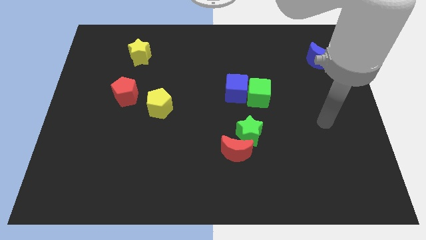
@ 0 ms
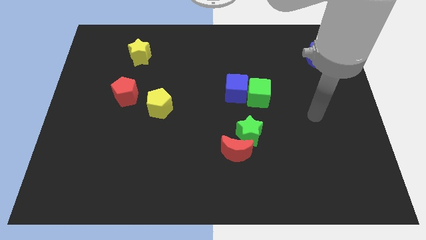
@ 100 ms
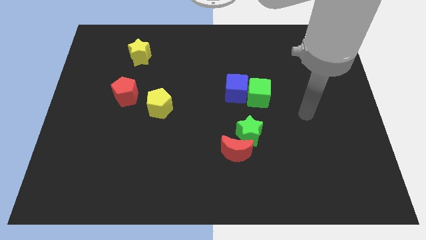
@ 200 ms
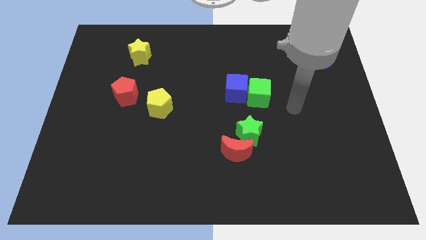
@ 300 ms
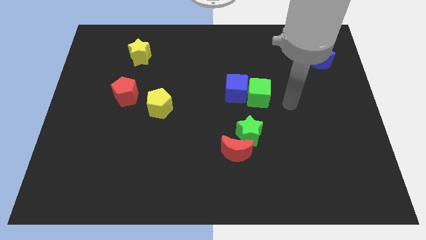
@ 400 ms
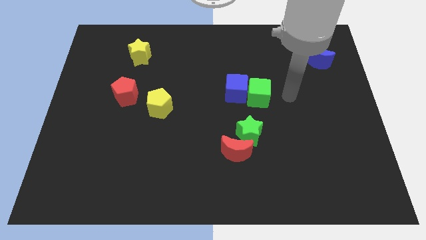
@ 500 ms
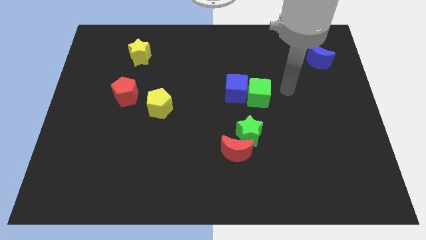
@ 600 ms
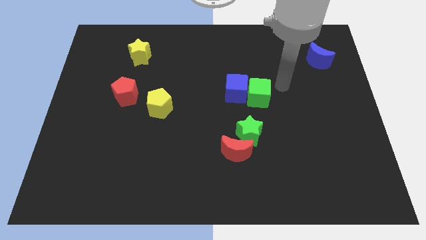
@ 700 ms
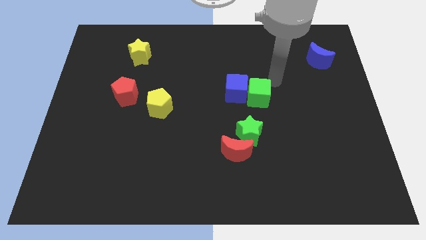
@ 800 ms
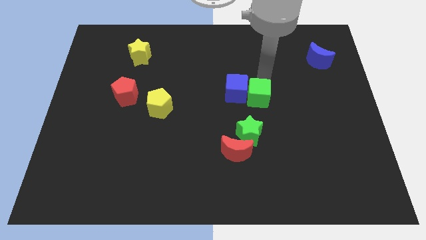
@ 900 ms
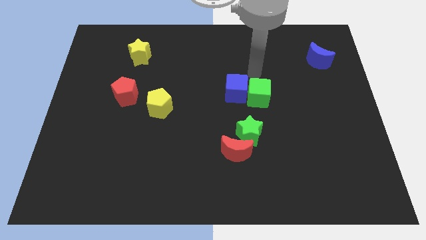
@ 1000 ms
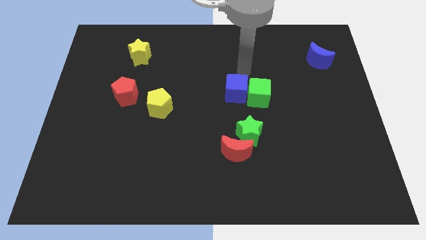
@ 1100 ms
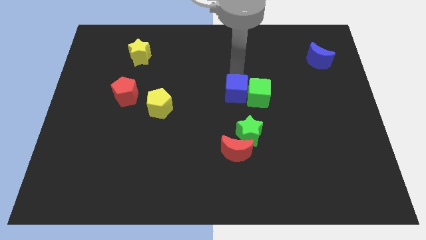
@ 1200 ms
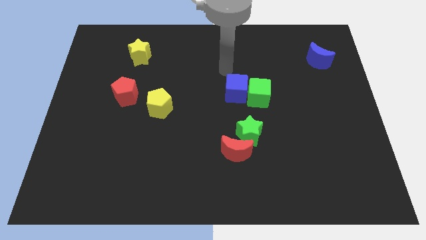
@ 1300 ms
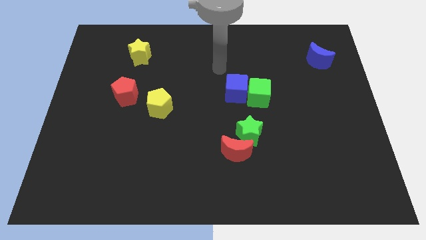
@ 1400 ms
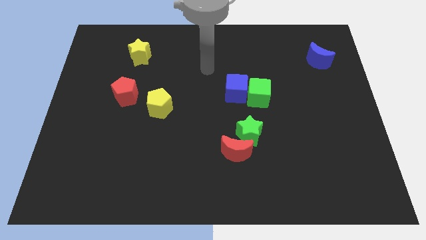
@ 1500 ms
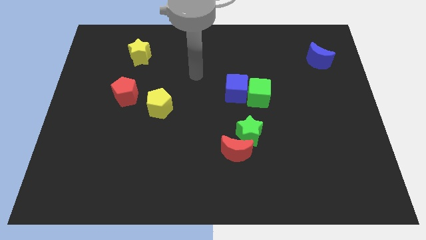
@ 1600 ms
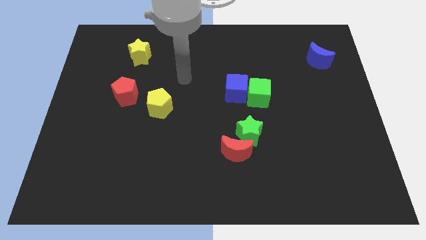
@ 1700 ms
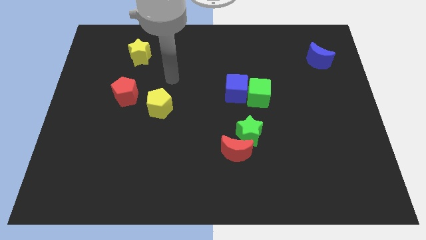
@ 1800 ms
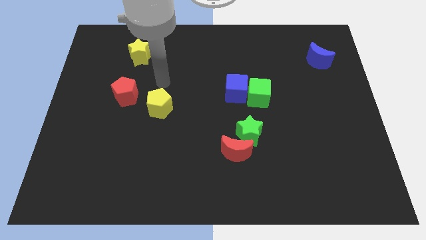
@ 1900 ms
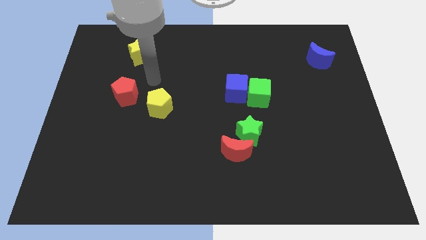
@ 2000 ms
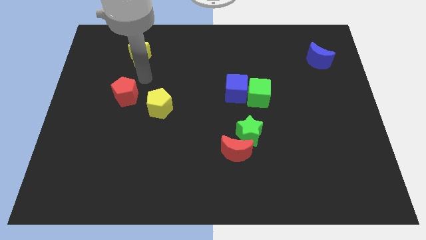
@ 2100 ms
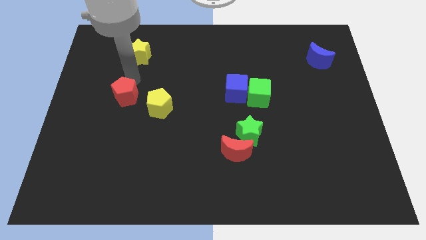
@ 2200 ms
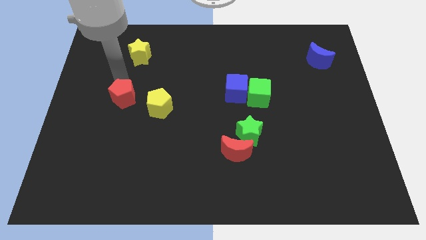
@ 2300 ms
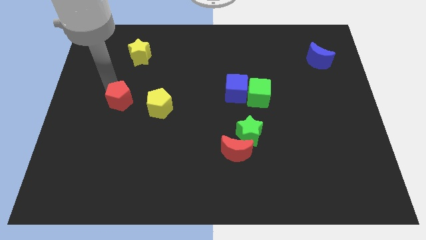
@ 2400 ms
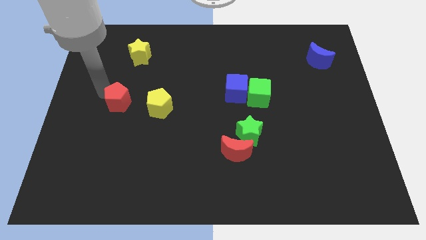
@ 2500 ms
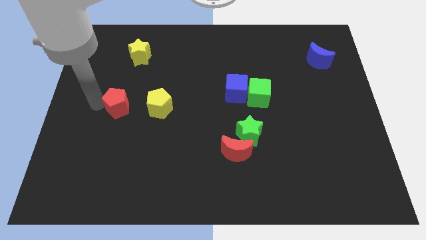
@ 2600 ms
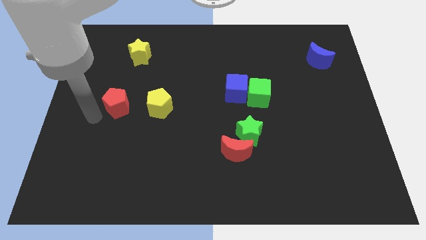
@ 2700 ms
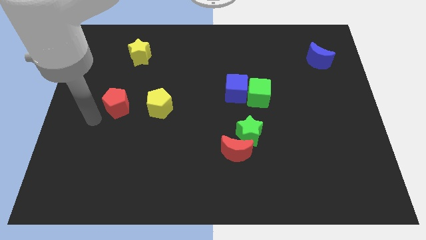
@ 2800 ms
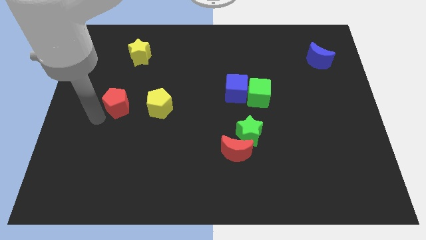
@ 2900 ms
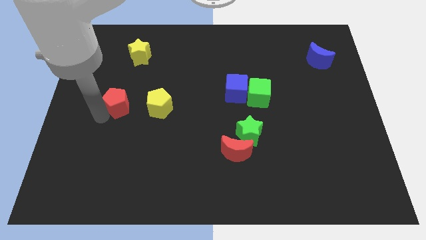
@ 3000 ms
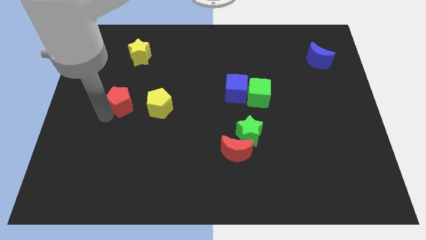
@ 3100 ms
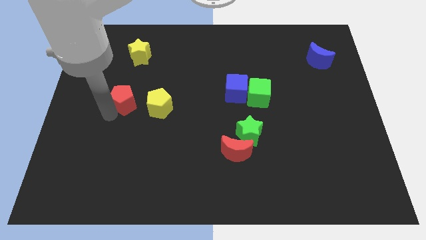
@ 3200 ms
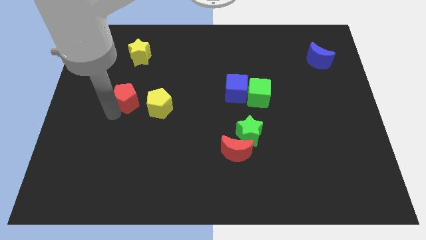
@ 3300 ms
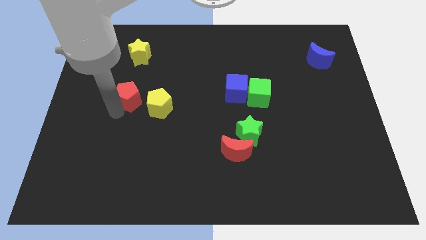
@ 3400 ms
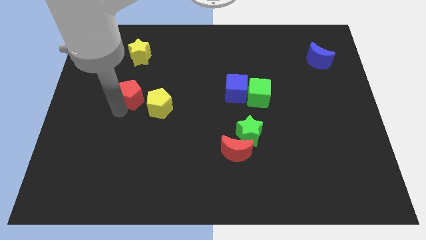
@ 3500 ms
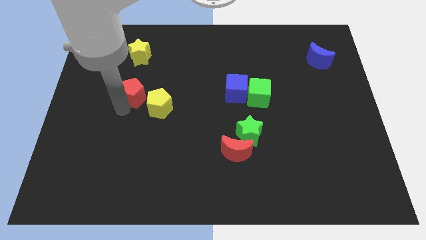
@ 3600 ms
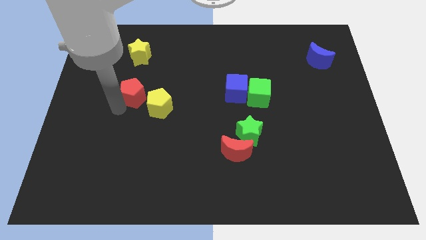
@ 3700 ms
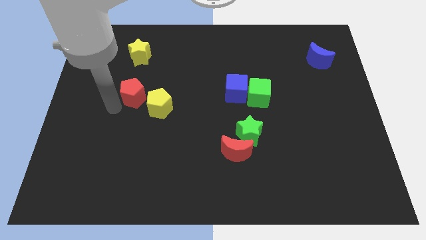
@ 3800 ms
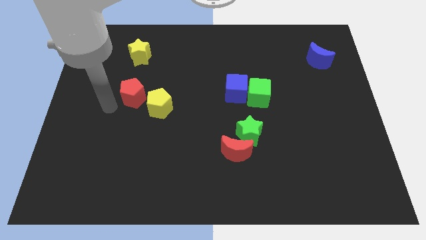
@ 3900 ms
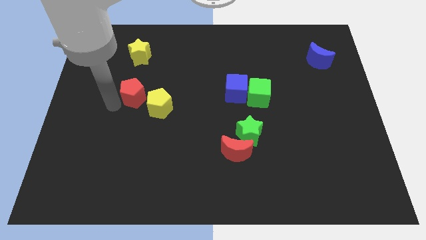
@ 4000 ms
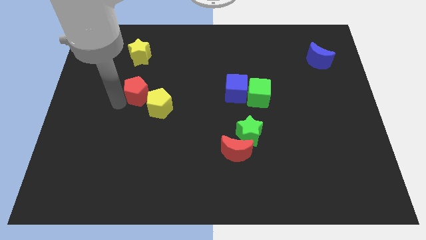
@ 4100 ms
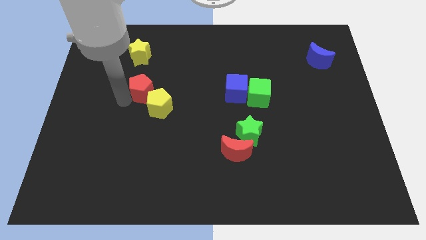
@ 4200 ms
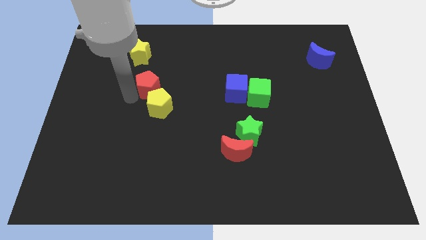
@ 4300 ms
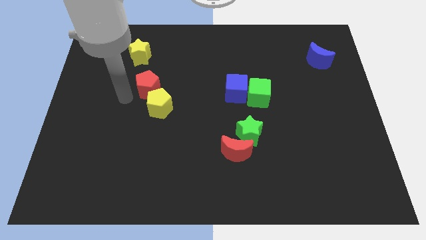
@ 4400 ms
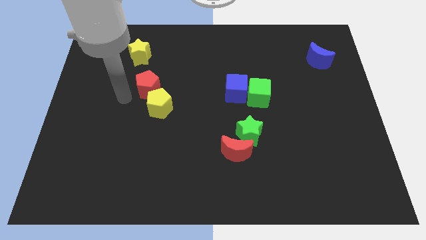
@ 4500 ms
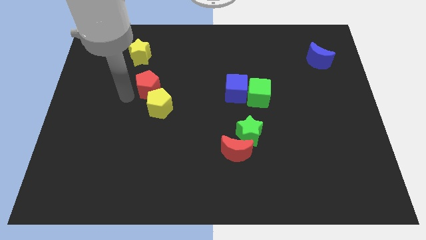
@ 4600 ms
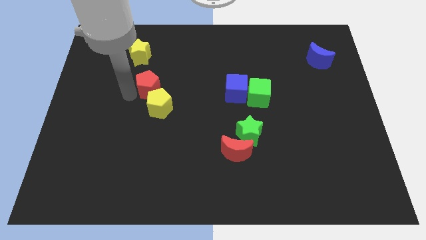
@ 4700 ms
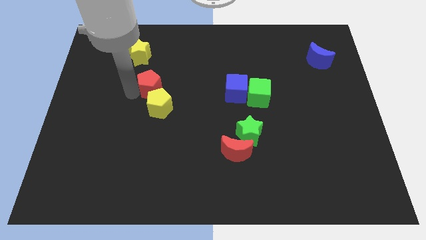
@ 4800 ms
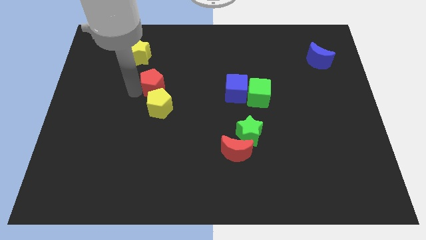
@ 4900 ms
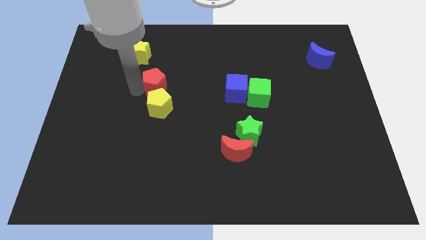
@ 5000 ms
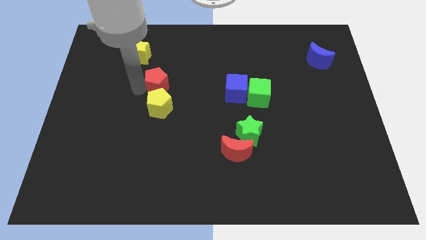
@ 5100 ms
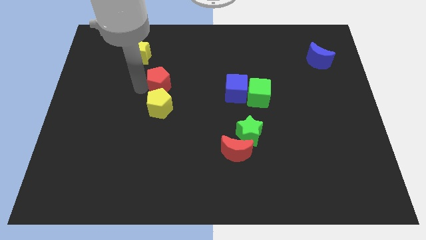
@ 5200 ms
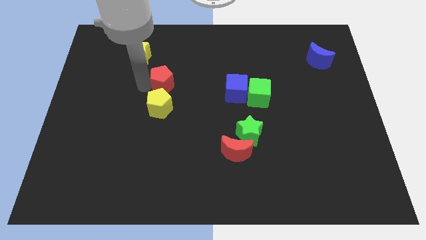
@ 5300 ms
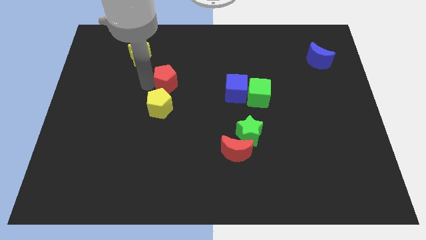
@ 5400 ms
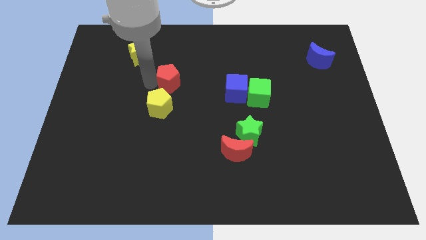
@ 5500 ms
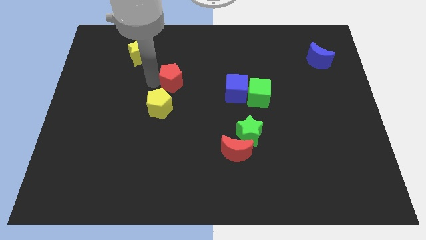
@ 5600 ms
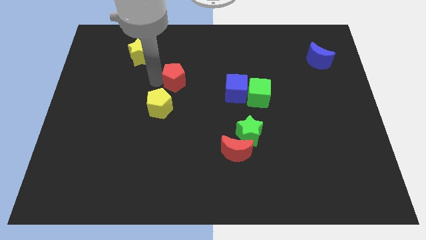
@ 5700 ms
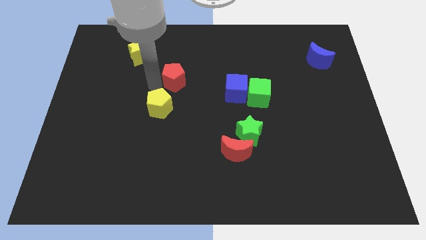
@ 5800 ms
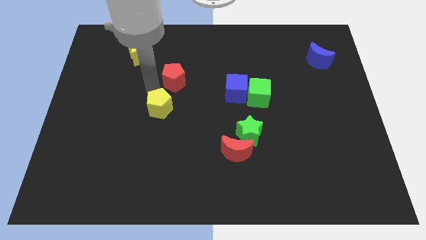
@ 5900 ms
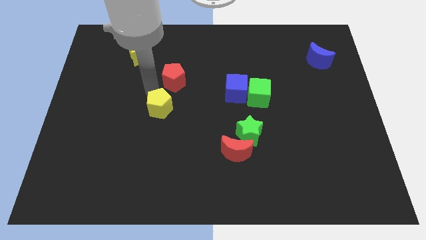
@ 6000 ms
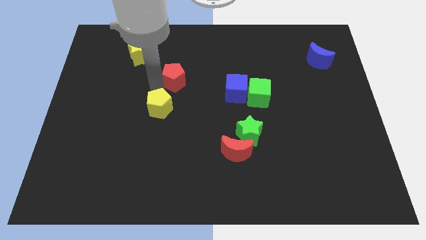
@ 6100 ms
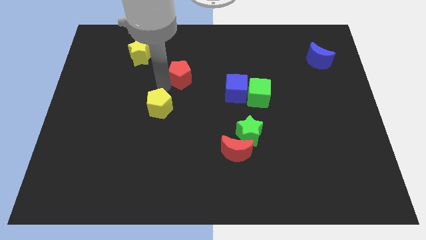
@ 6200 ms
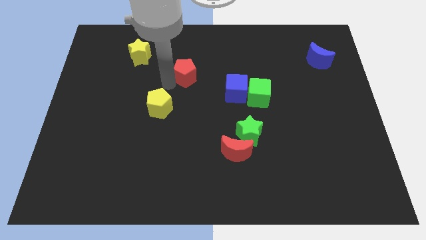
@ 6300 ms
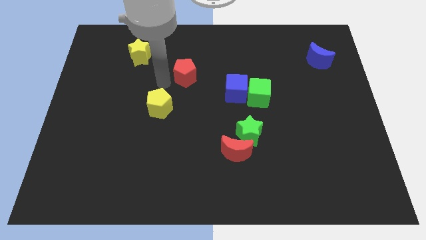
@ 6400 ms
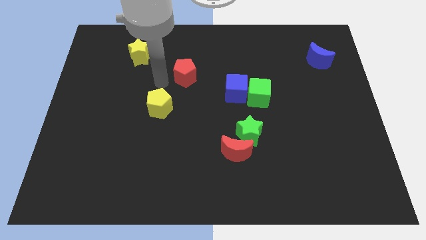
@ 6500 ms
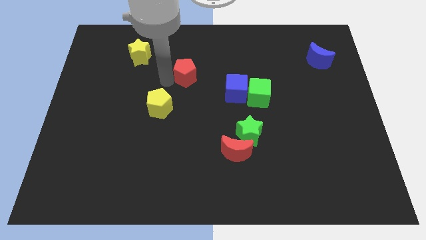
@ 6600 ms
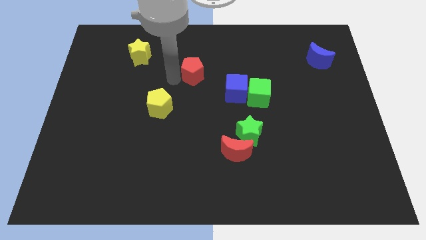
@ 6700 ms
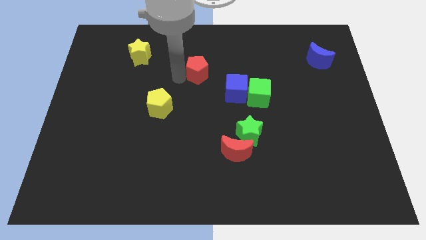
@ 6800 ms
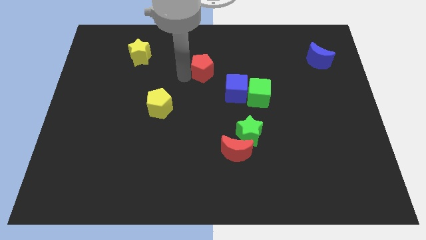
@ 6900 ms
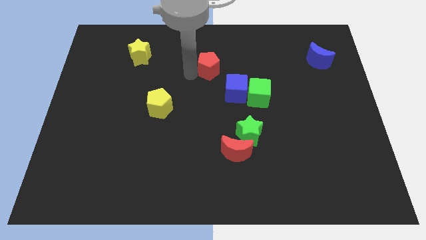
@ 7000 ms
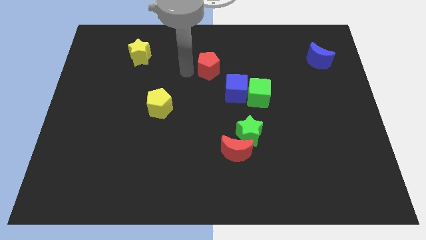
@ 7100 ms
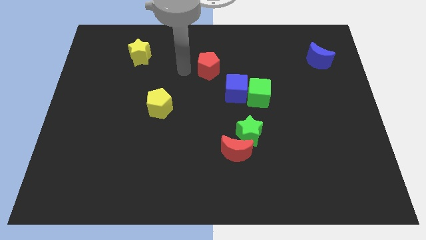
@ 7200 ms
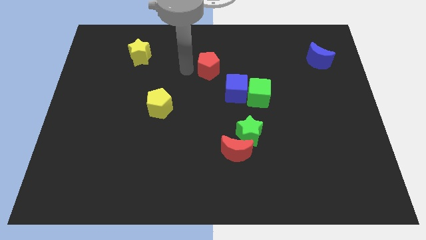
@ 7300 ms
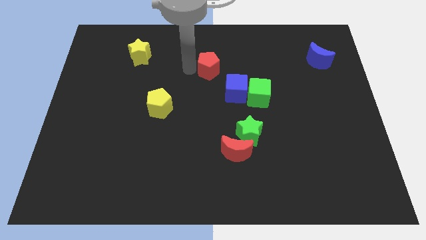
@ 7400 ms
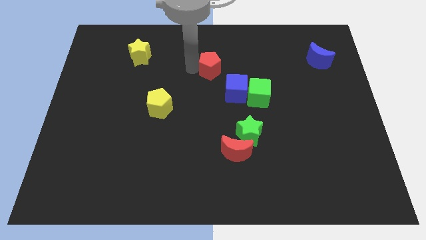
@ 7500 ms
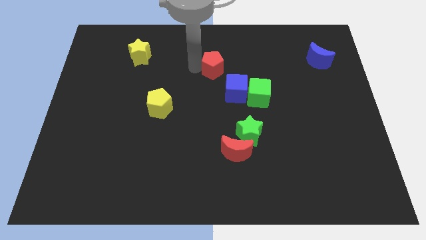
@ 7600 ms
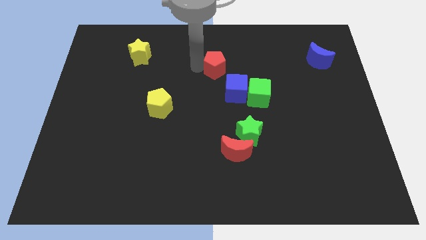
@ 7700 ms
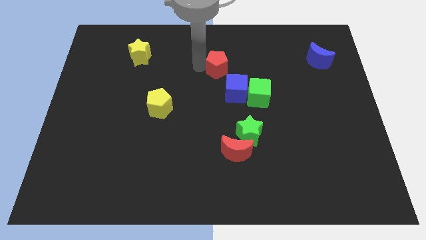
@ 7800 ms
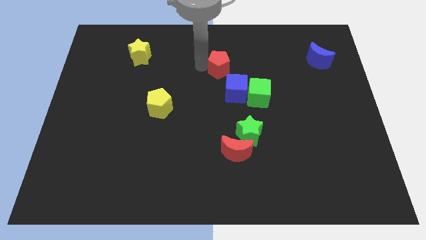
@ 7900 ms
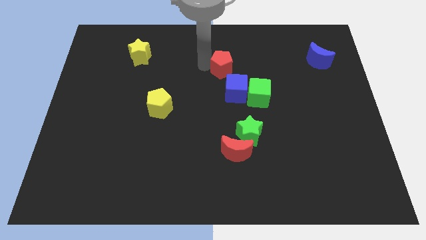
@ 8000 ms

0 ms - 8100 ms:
slide the red pentagon diagonally up and to the left of the green cube
